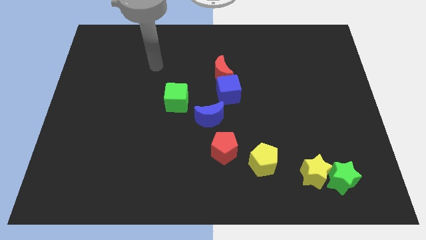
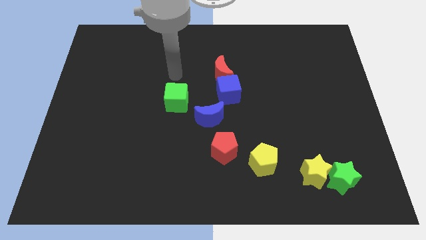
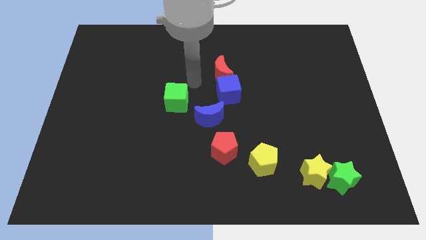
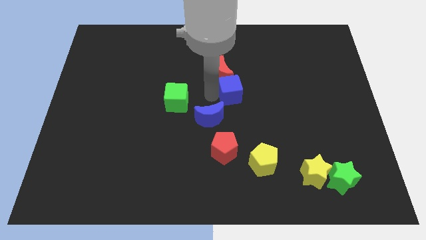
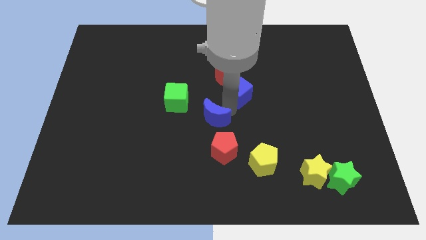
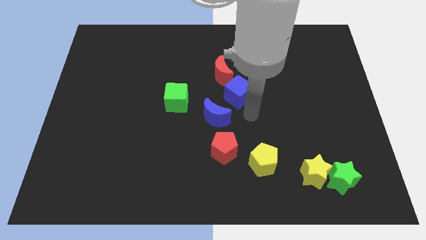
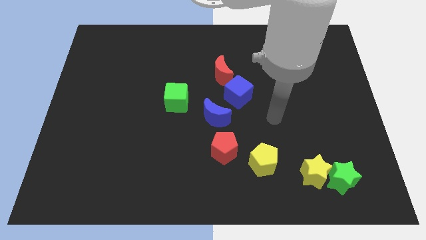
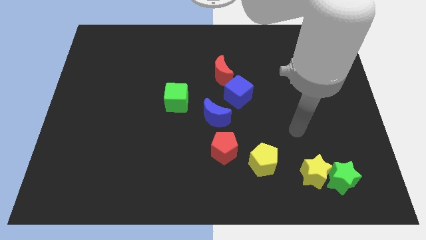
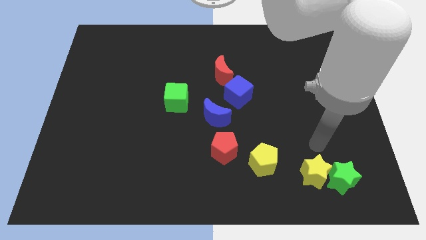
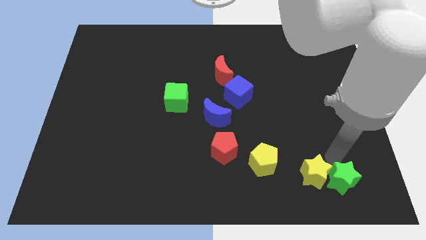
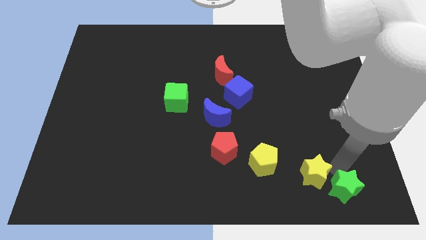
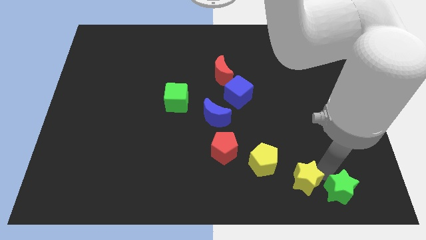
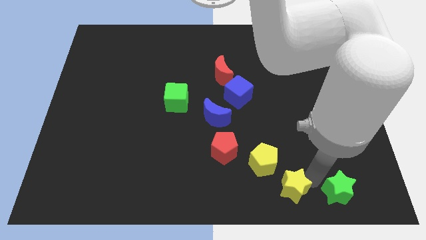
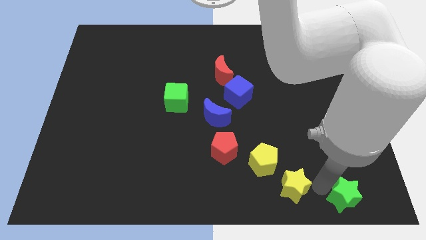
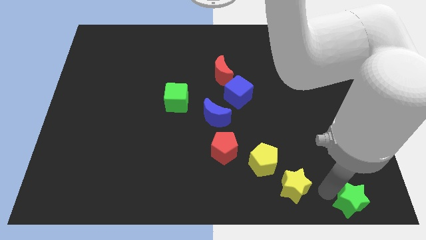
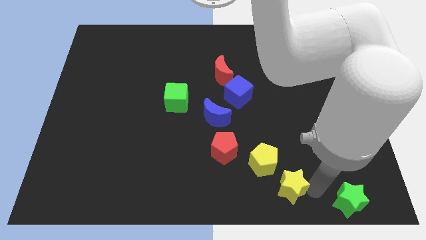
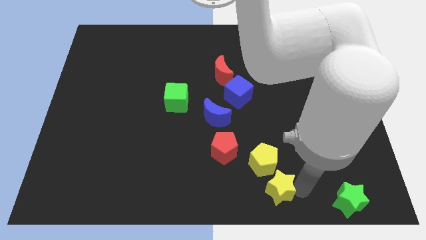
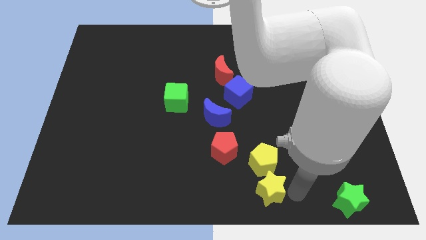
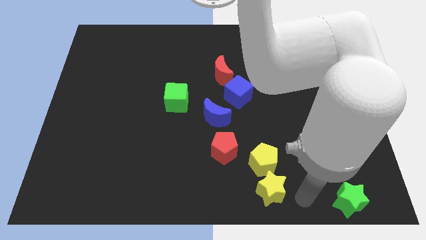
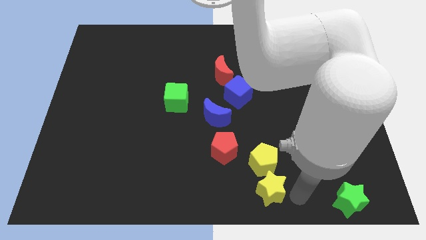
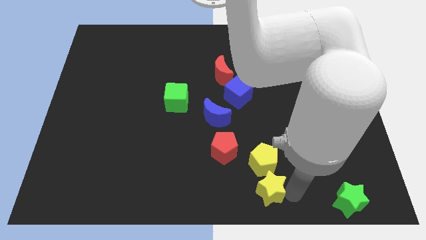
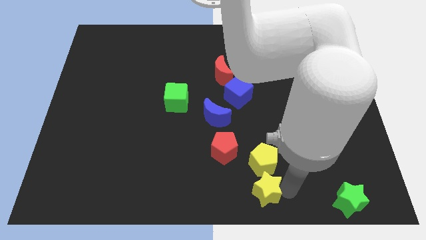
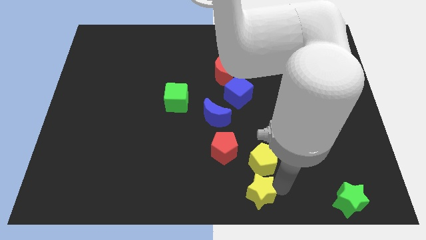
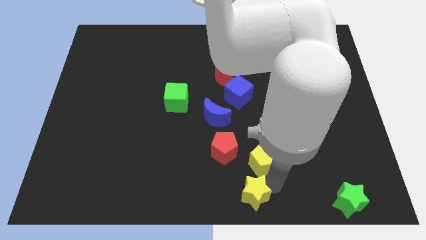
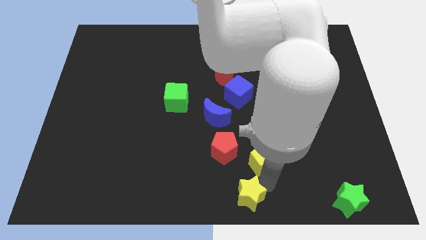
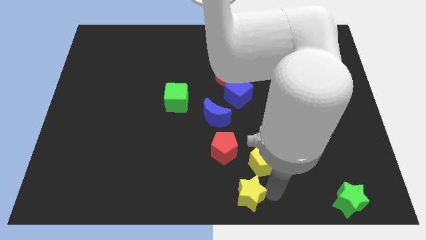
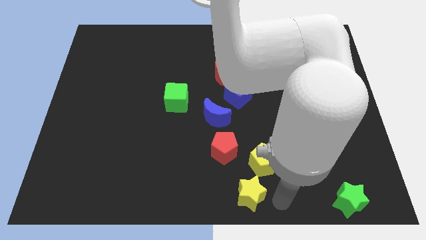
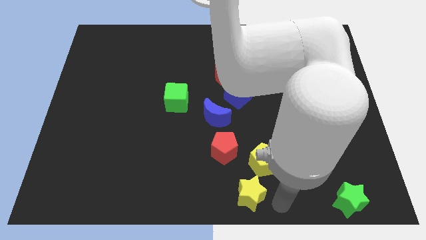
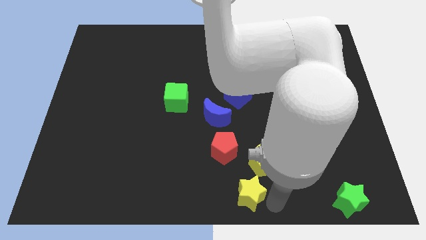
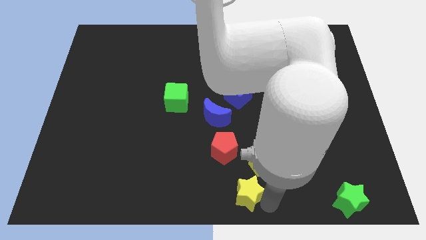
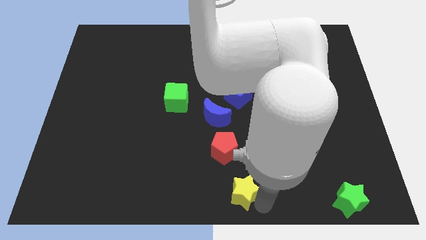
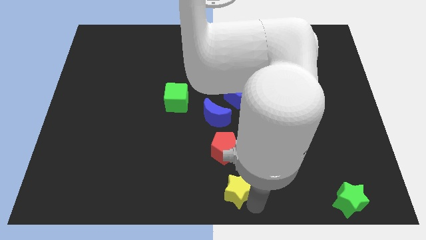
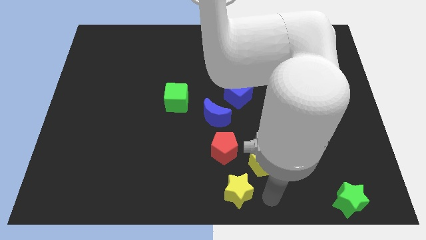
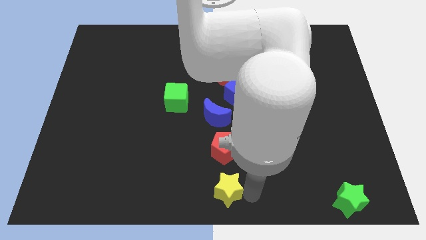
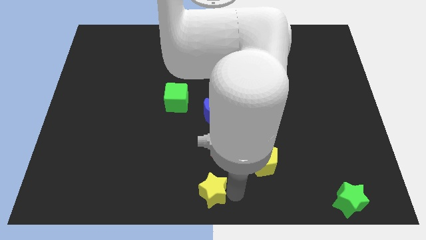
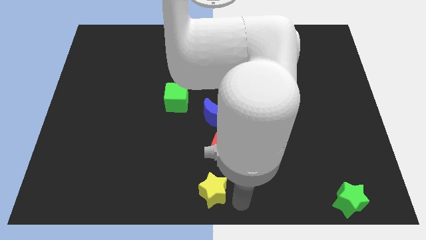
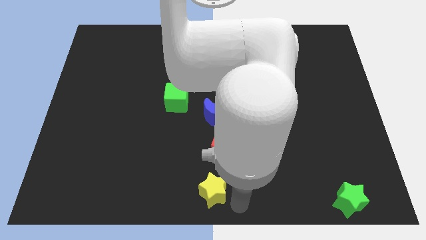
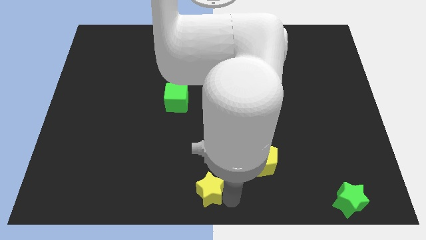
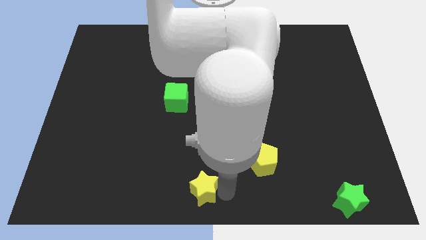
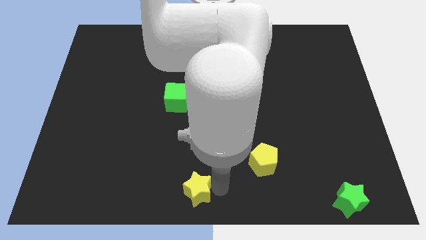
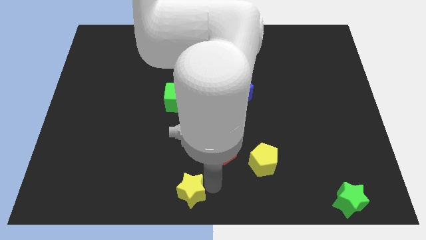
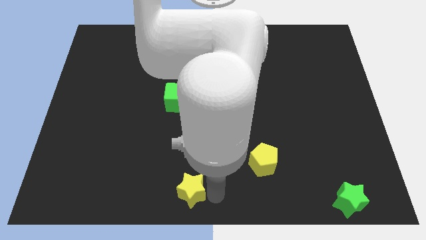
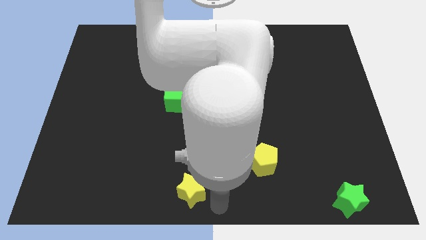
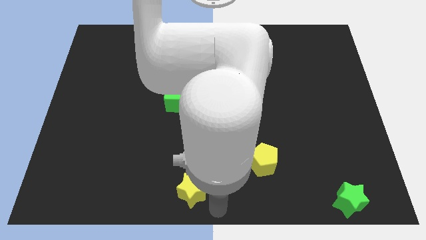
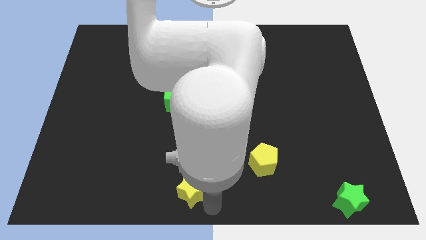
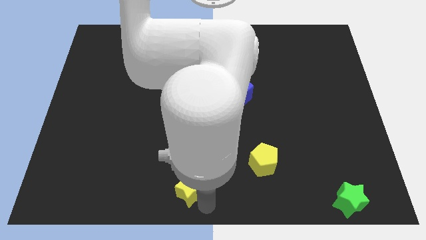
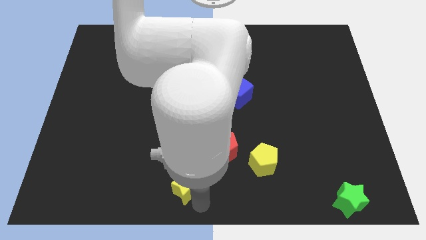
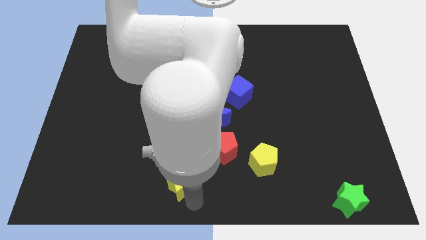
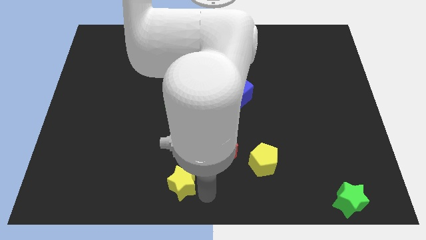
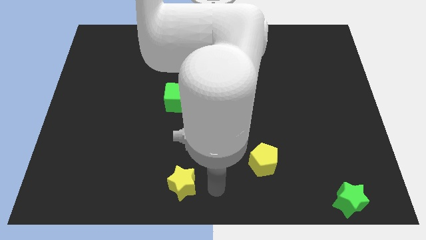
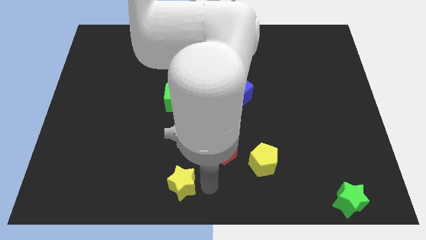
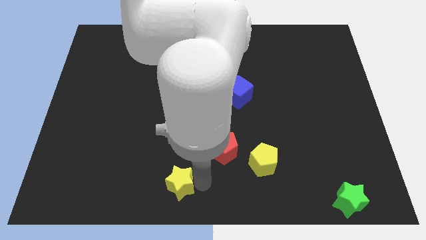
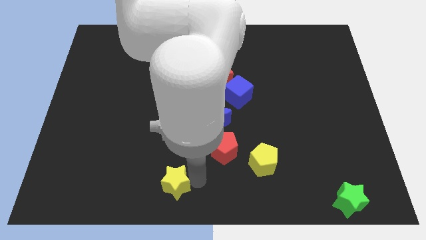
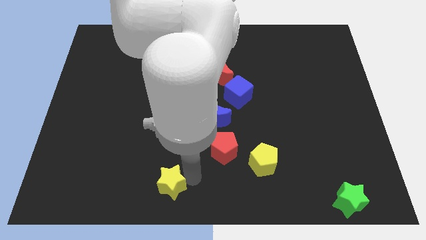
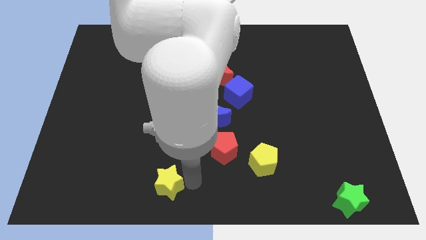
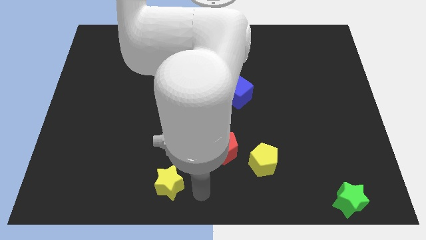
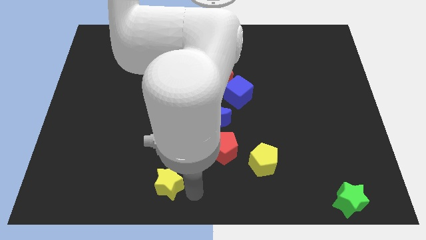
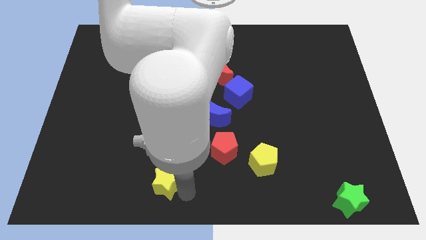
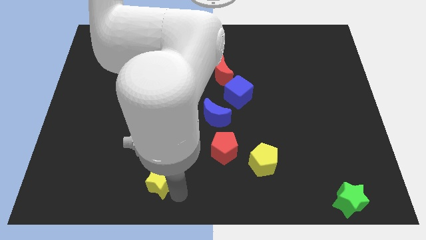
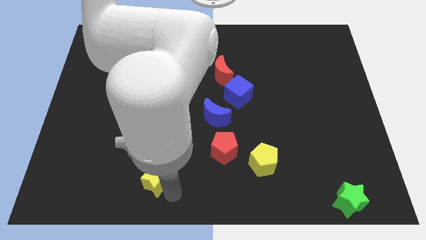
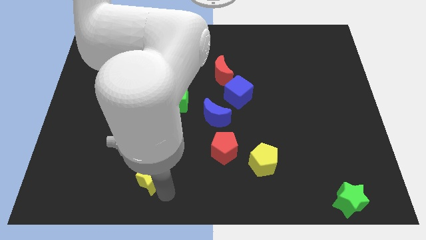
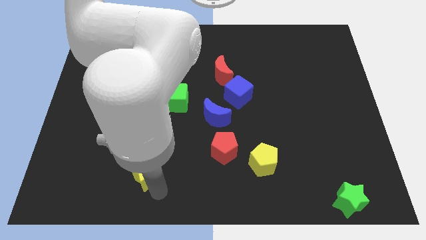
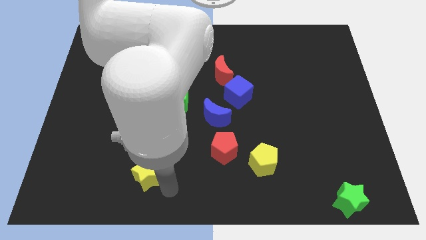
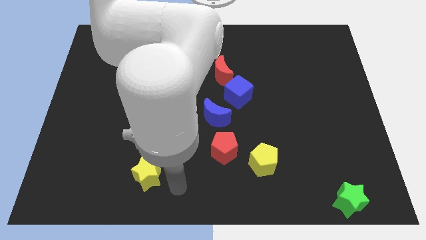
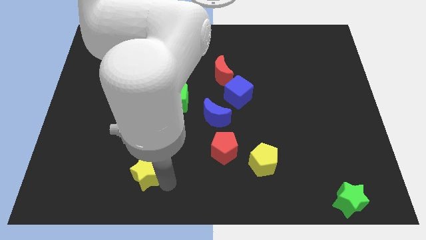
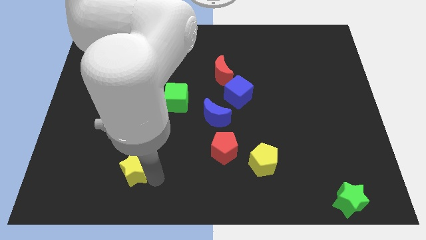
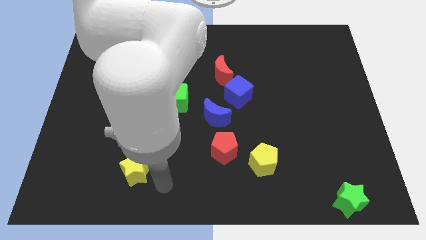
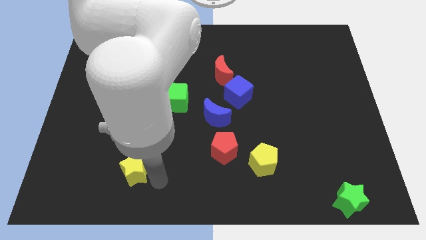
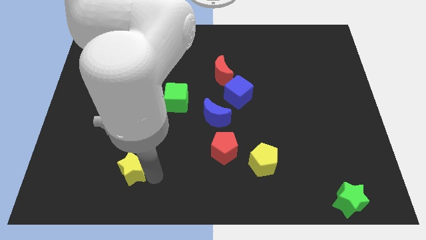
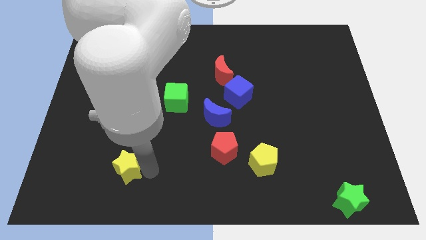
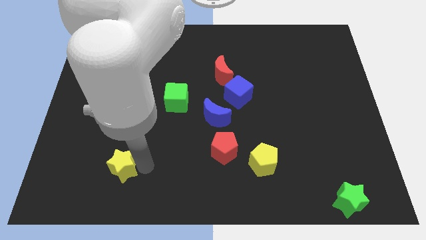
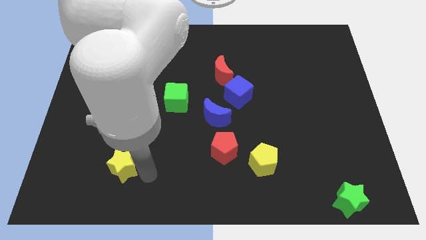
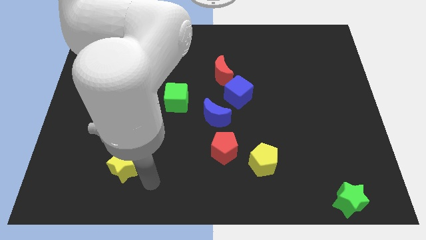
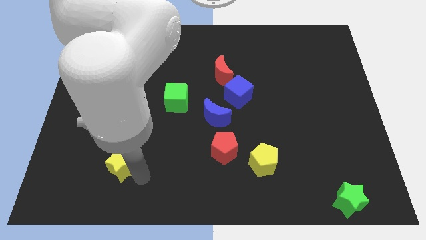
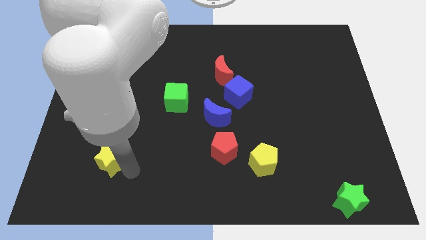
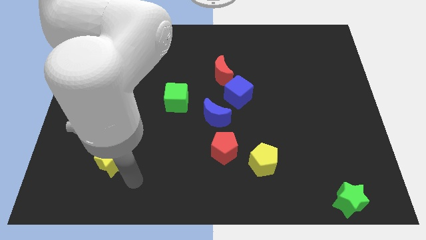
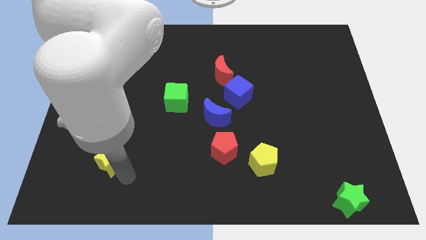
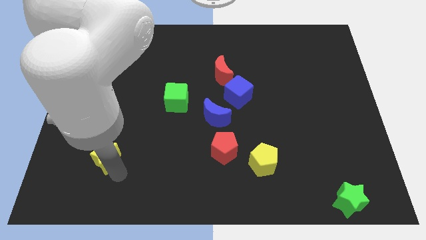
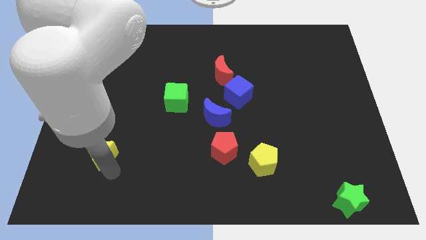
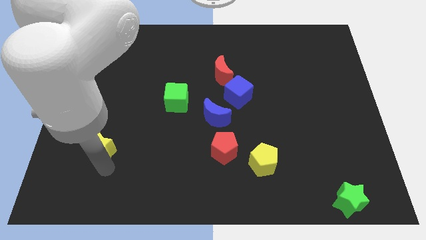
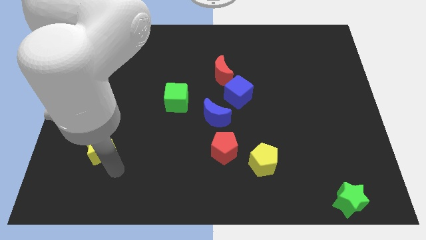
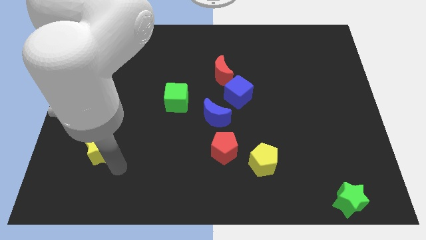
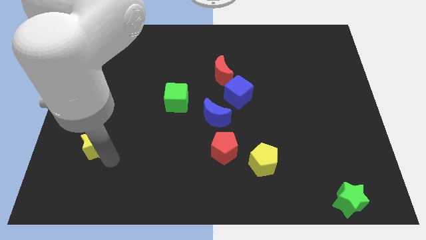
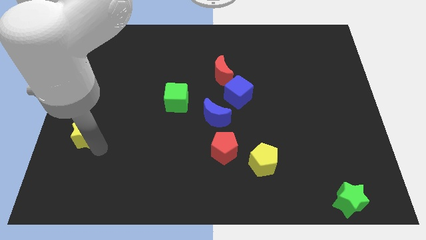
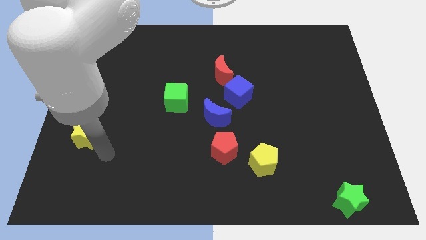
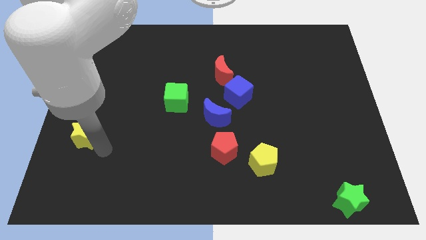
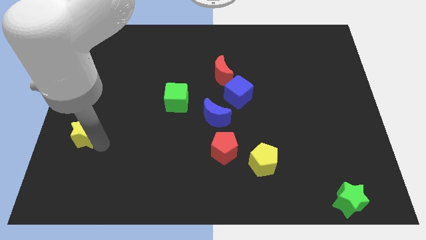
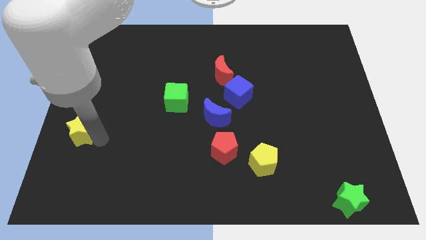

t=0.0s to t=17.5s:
move the yellow star to the left side of the board
